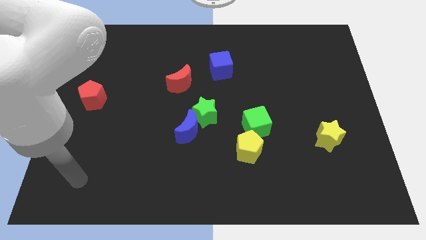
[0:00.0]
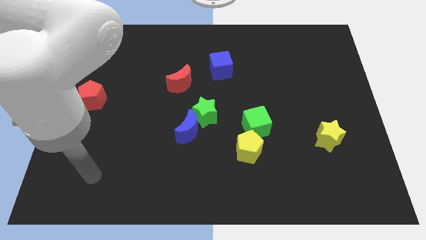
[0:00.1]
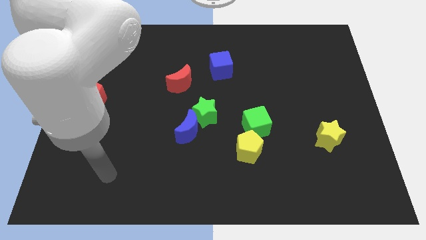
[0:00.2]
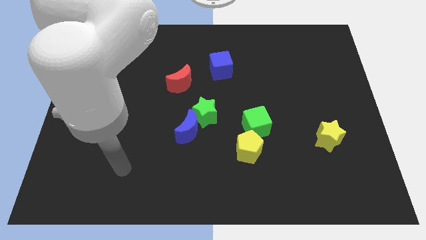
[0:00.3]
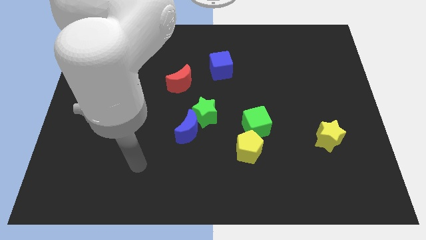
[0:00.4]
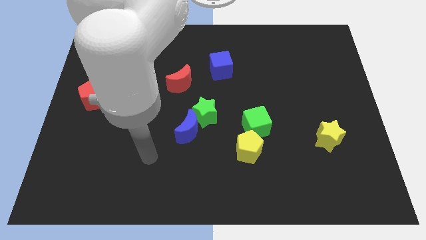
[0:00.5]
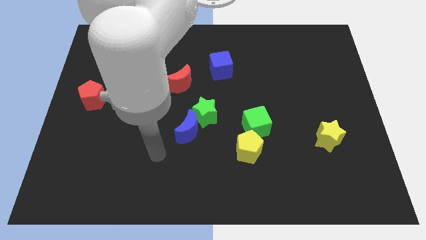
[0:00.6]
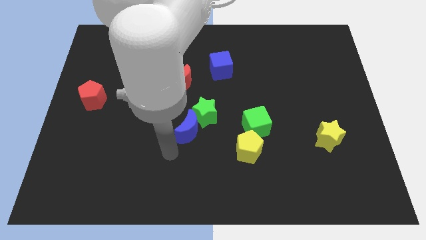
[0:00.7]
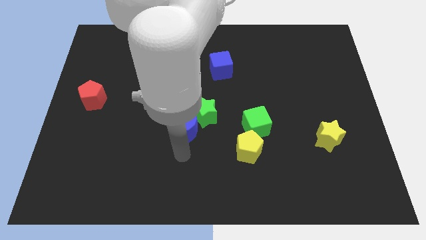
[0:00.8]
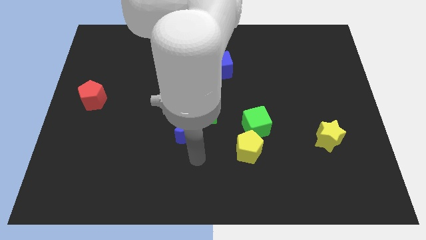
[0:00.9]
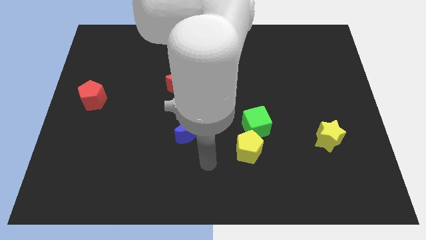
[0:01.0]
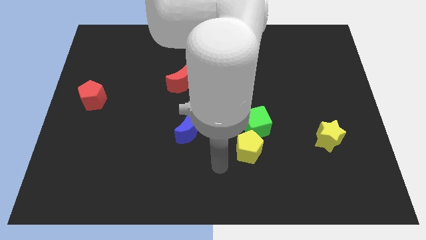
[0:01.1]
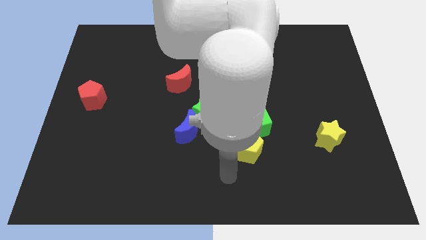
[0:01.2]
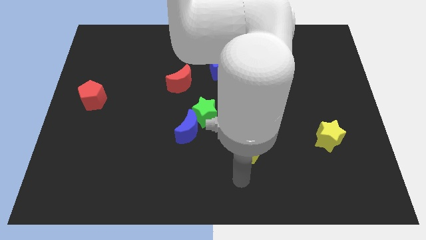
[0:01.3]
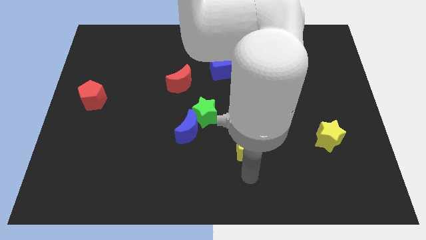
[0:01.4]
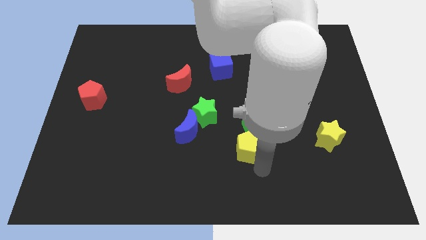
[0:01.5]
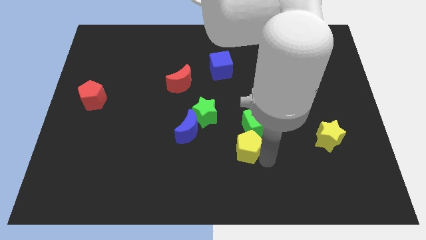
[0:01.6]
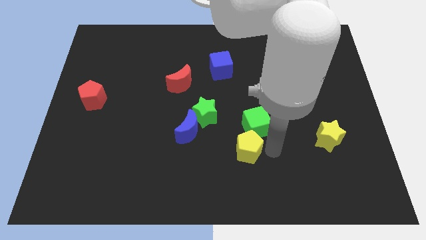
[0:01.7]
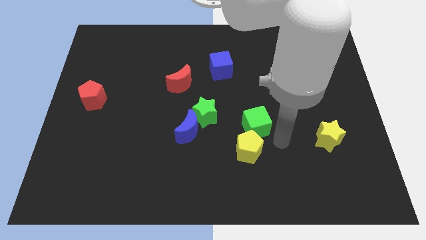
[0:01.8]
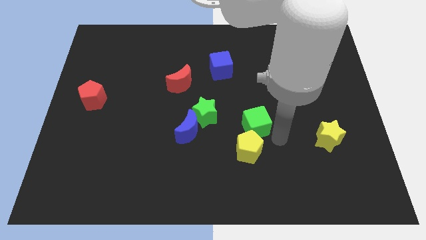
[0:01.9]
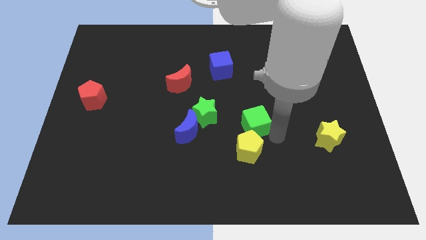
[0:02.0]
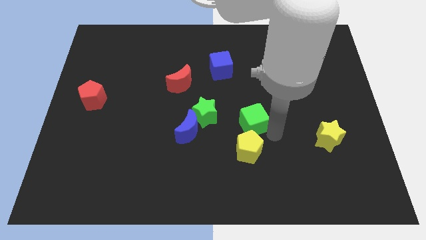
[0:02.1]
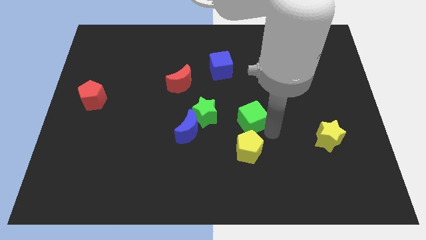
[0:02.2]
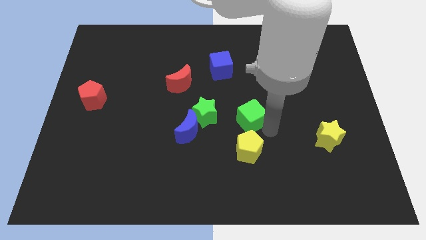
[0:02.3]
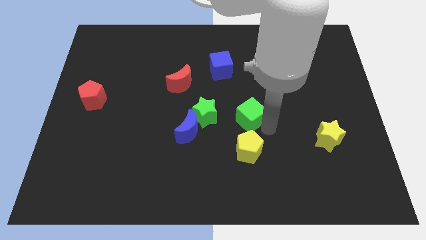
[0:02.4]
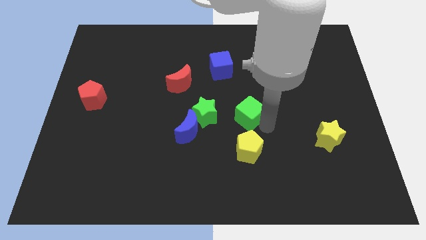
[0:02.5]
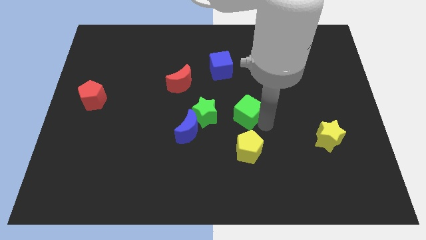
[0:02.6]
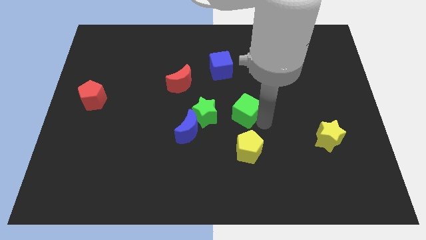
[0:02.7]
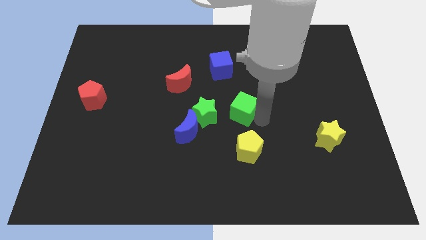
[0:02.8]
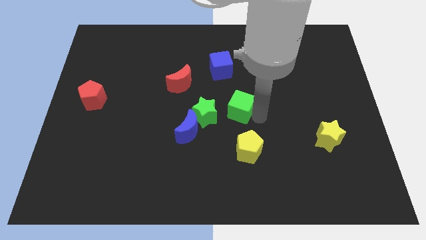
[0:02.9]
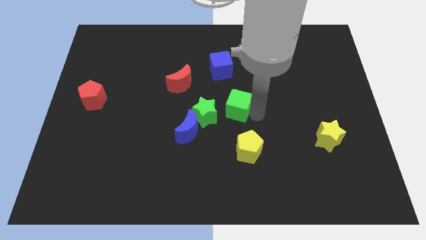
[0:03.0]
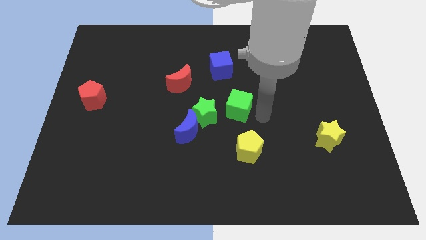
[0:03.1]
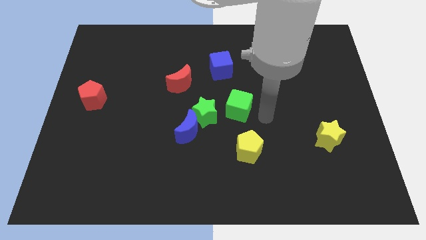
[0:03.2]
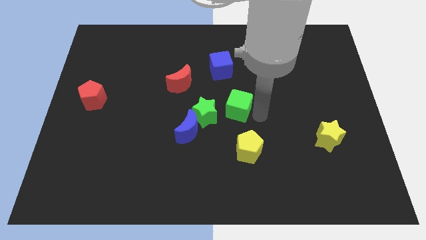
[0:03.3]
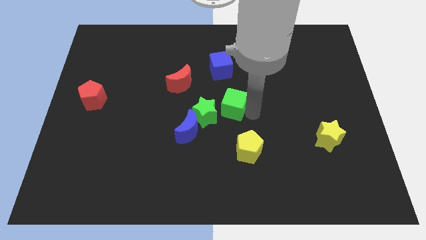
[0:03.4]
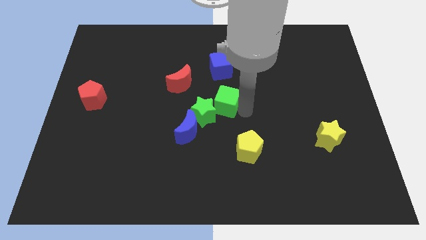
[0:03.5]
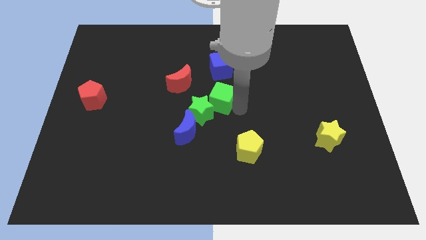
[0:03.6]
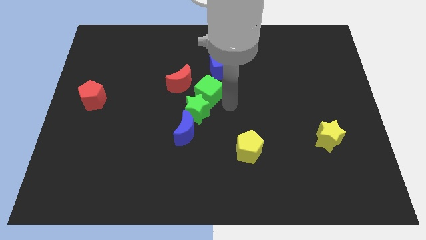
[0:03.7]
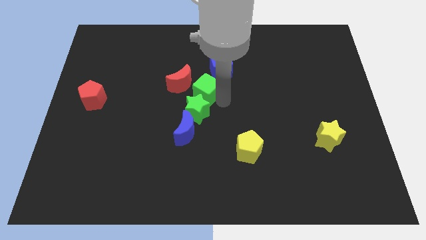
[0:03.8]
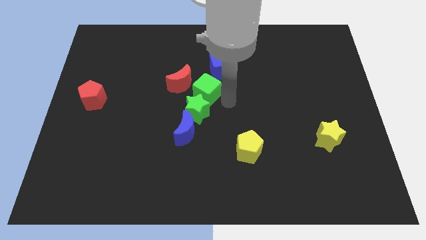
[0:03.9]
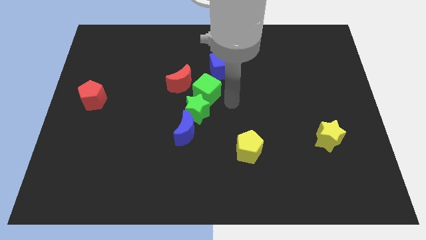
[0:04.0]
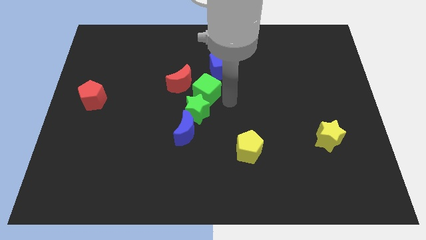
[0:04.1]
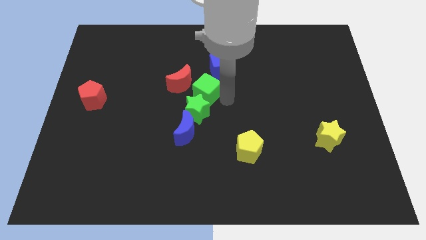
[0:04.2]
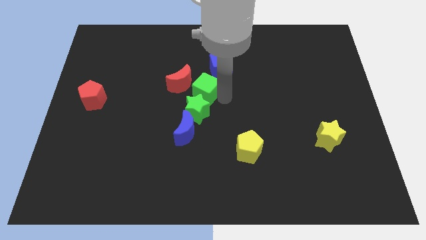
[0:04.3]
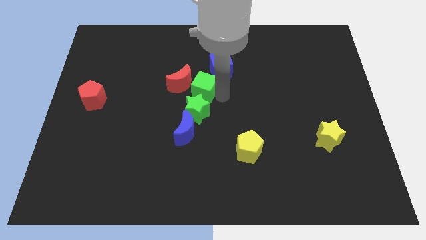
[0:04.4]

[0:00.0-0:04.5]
put the green cube close to the red moon

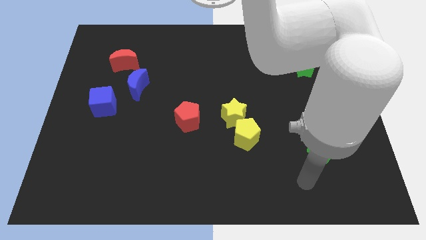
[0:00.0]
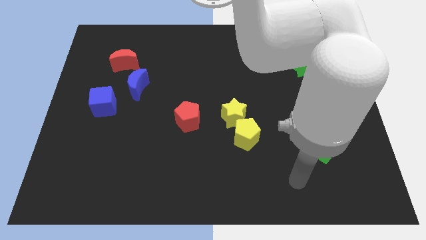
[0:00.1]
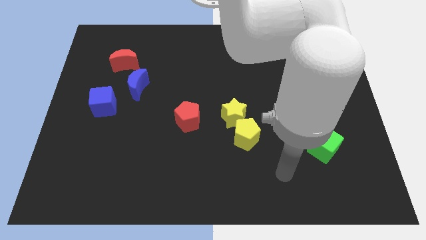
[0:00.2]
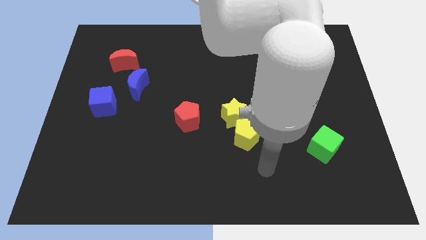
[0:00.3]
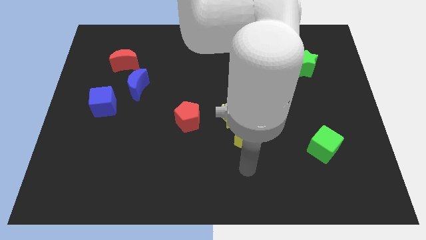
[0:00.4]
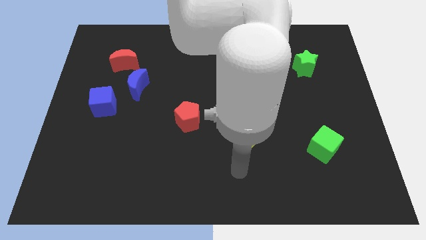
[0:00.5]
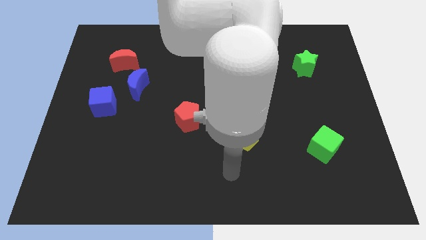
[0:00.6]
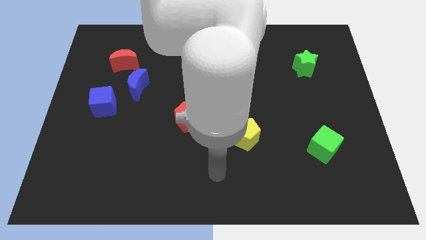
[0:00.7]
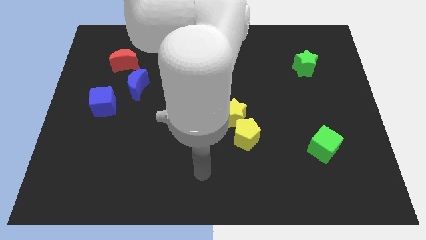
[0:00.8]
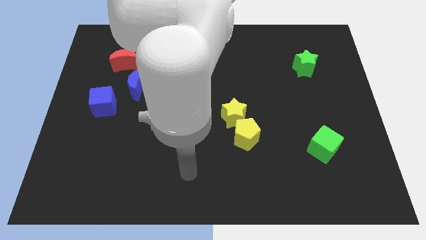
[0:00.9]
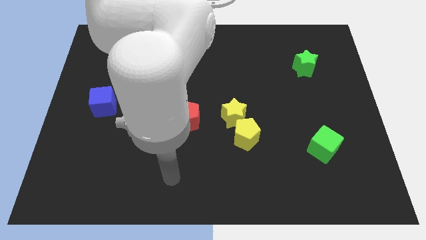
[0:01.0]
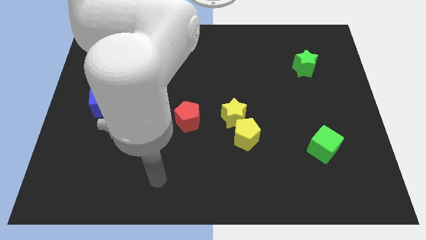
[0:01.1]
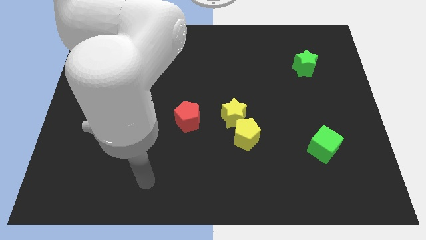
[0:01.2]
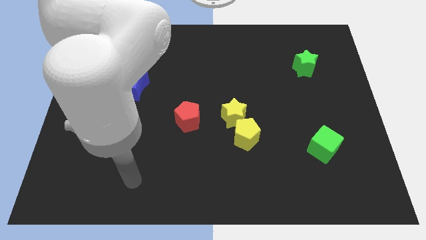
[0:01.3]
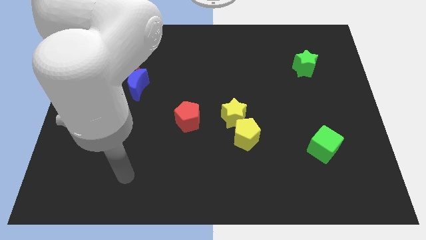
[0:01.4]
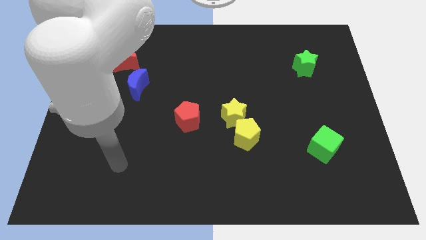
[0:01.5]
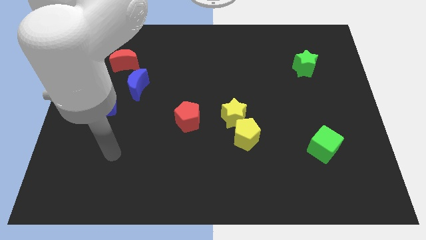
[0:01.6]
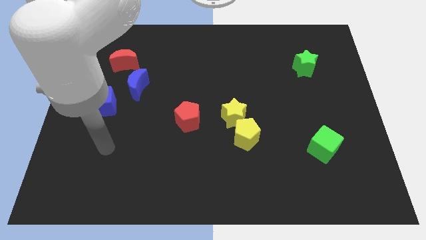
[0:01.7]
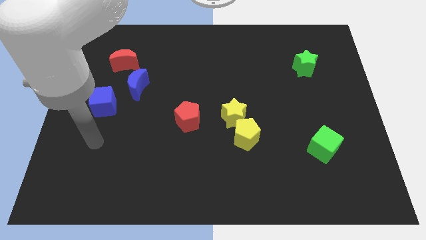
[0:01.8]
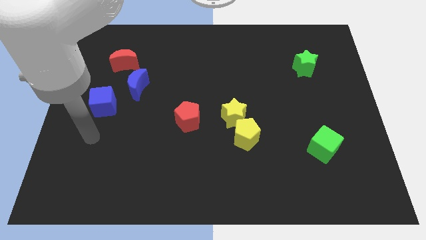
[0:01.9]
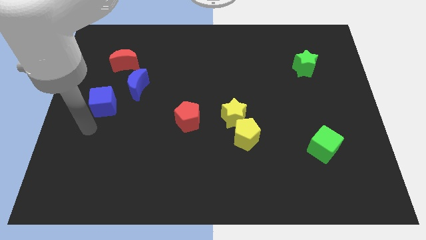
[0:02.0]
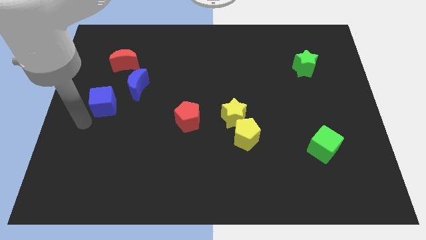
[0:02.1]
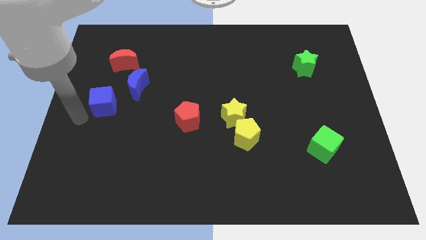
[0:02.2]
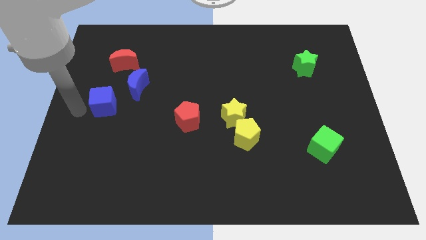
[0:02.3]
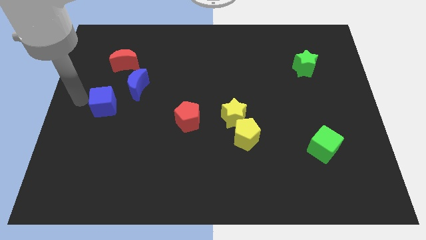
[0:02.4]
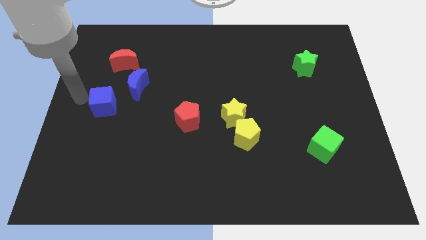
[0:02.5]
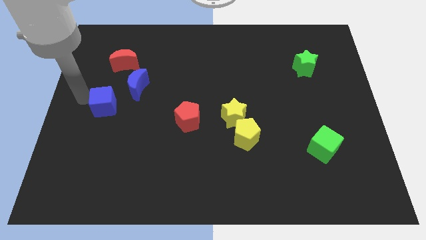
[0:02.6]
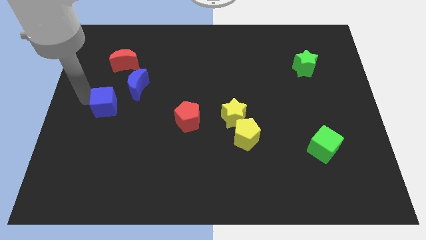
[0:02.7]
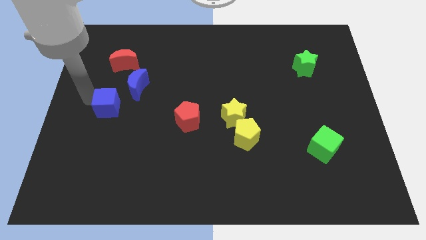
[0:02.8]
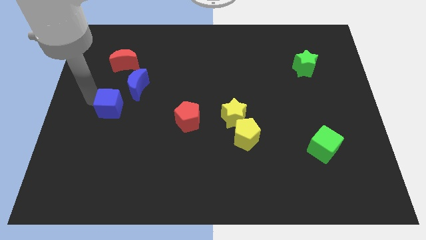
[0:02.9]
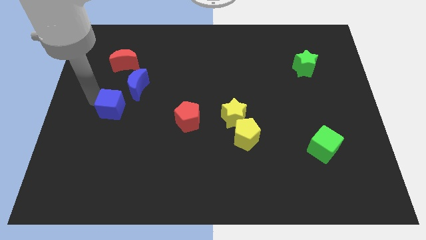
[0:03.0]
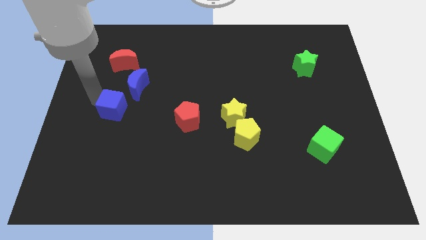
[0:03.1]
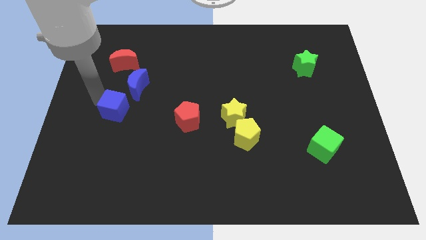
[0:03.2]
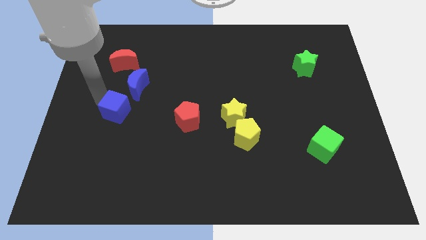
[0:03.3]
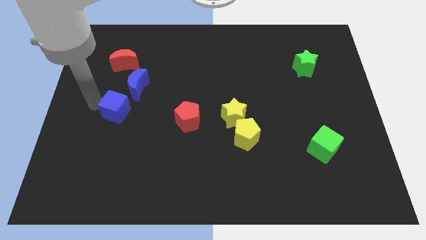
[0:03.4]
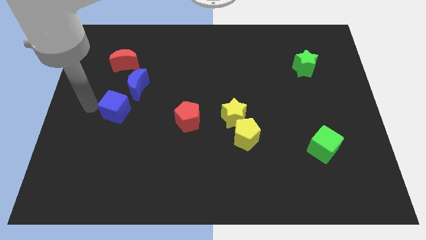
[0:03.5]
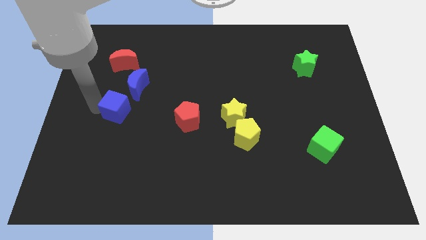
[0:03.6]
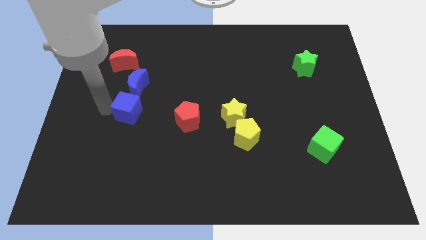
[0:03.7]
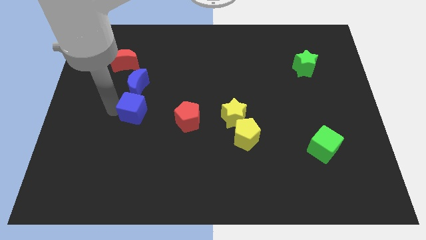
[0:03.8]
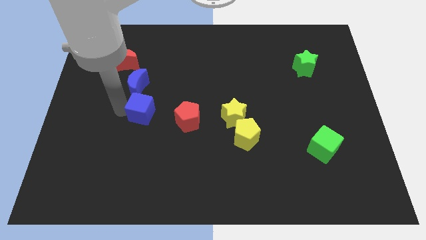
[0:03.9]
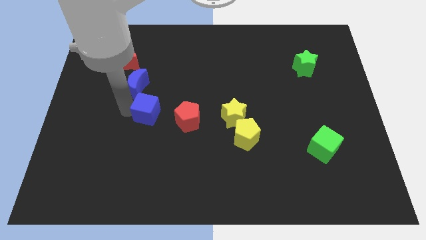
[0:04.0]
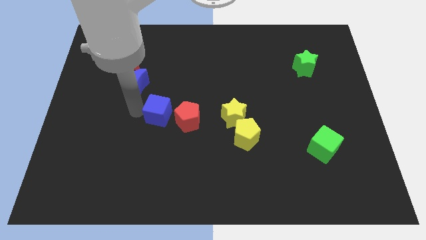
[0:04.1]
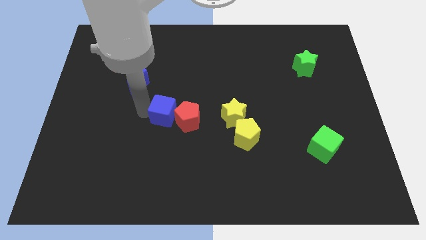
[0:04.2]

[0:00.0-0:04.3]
slide the blue cube next to the red pentagon
